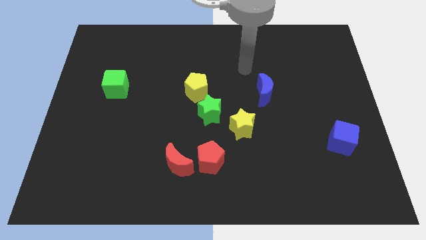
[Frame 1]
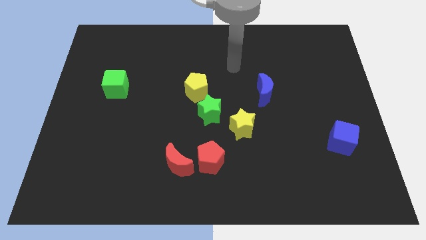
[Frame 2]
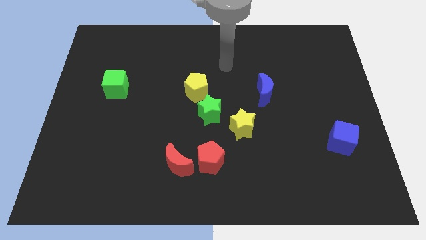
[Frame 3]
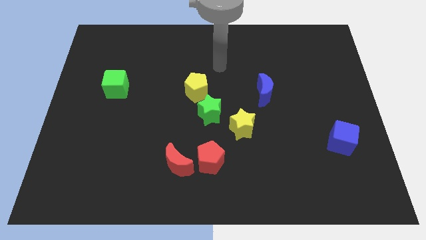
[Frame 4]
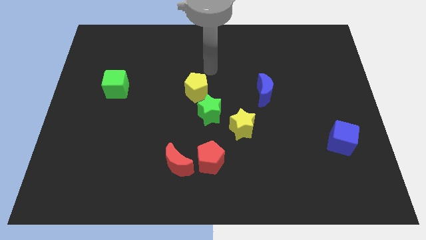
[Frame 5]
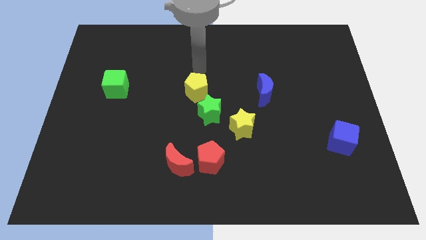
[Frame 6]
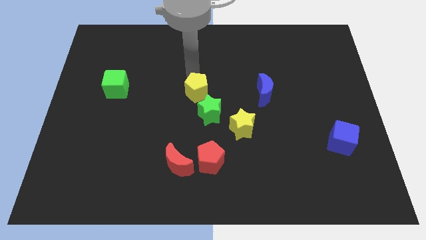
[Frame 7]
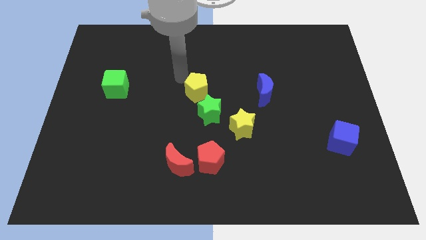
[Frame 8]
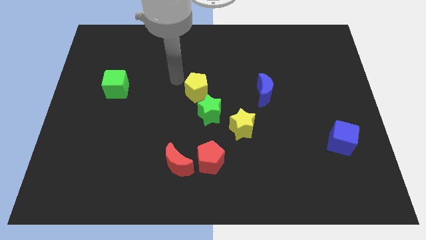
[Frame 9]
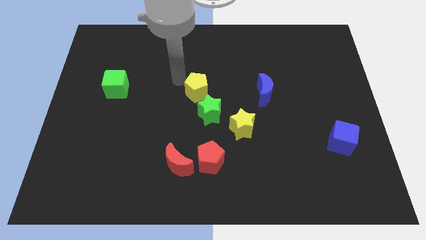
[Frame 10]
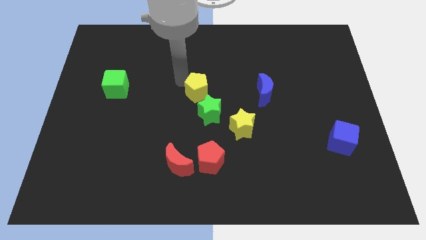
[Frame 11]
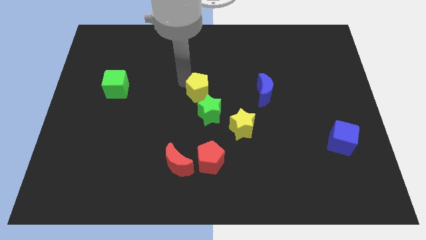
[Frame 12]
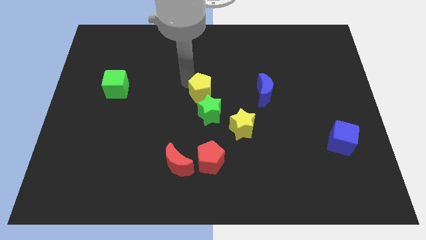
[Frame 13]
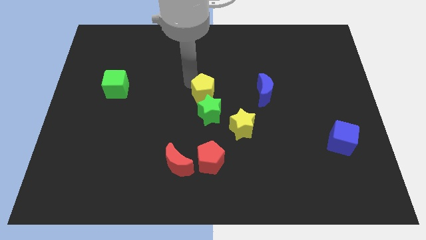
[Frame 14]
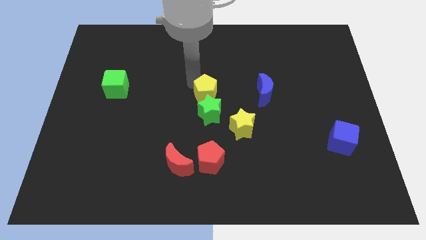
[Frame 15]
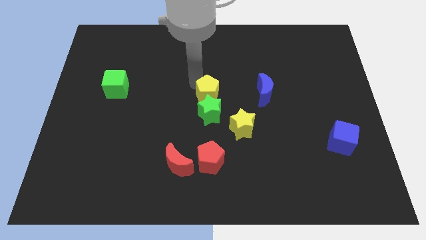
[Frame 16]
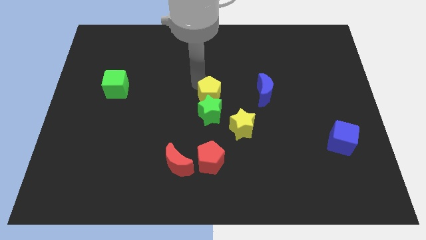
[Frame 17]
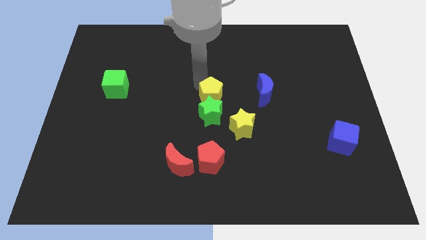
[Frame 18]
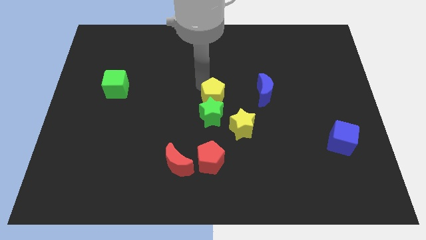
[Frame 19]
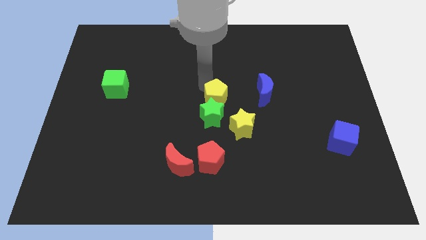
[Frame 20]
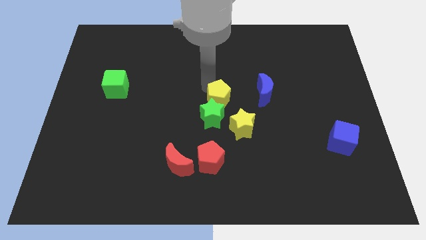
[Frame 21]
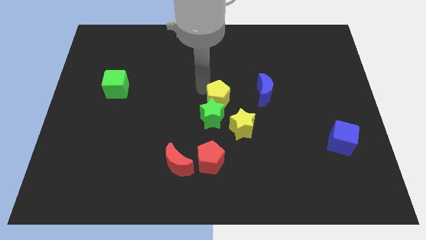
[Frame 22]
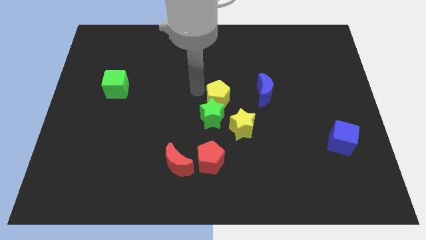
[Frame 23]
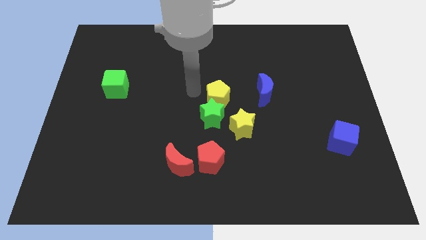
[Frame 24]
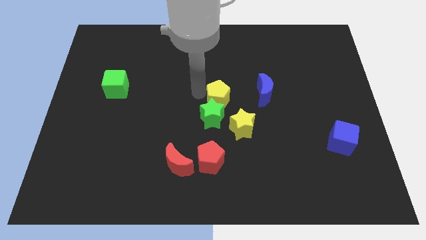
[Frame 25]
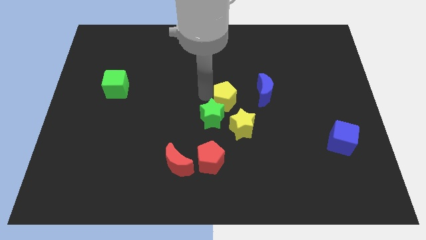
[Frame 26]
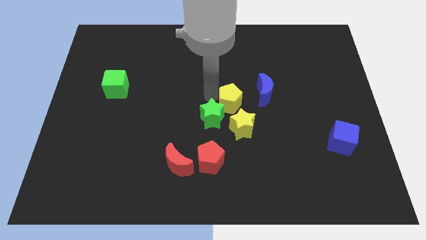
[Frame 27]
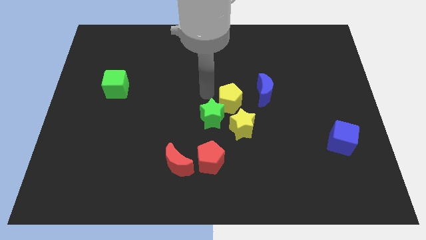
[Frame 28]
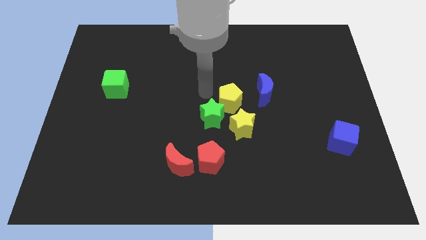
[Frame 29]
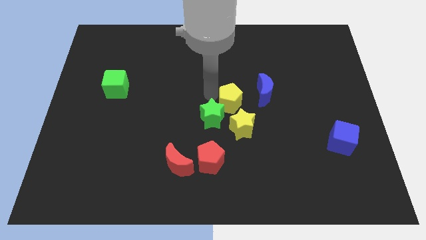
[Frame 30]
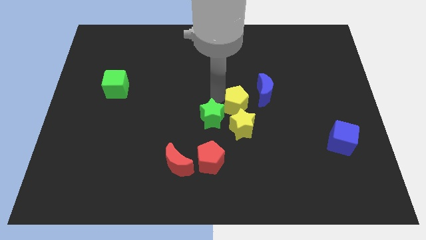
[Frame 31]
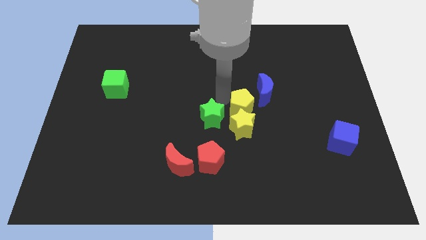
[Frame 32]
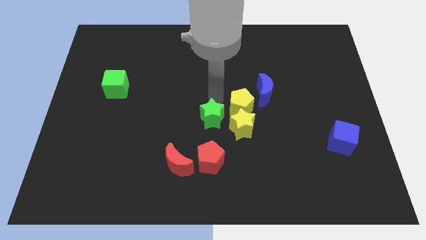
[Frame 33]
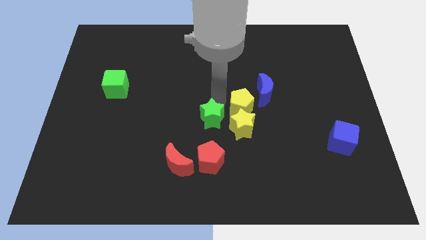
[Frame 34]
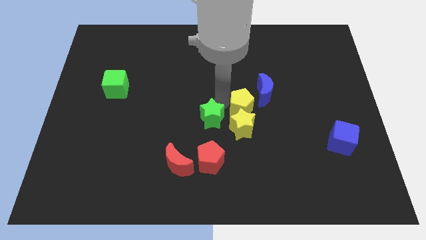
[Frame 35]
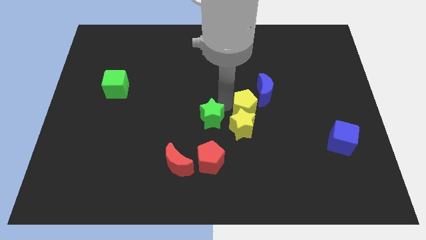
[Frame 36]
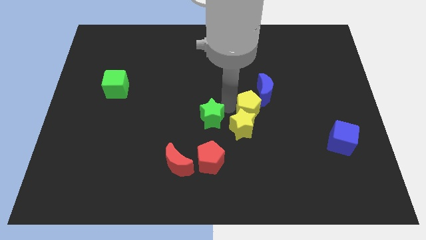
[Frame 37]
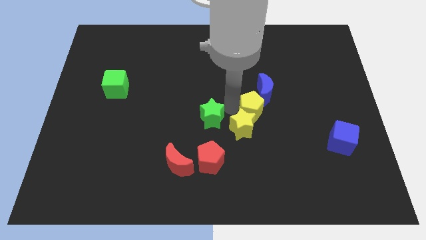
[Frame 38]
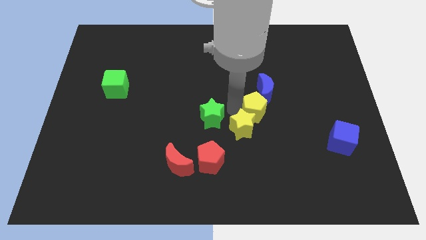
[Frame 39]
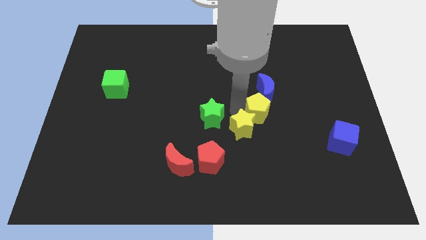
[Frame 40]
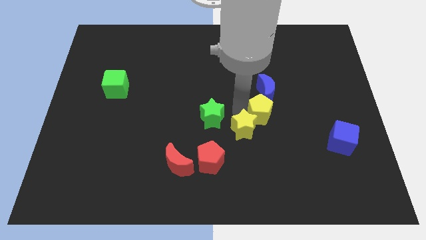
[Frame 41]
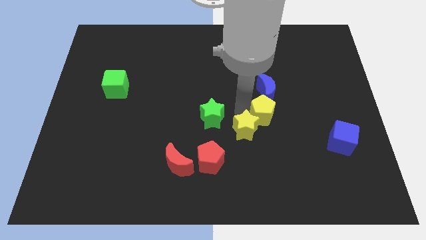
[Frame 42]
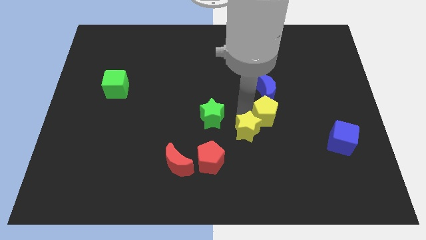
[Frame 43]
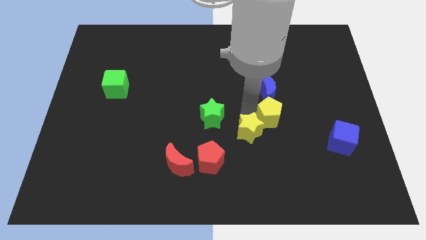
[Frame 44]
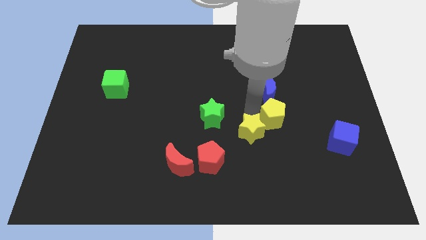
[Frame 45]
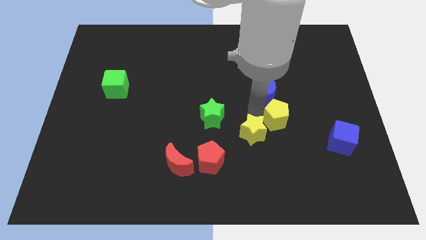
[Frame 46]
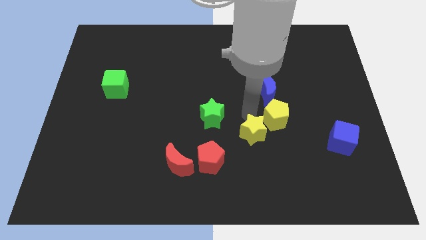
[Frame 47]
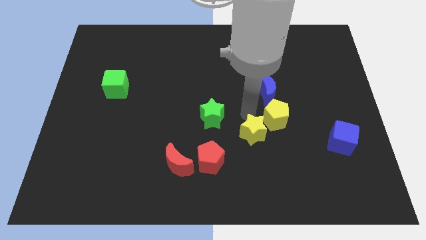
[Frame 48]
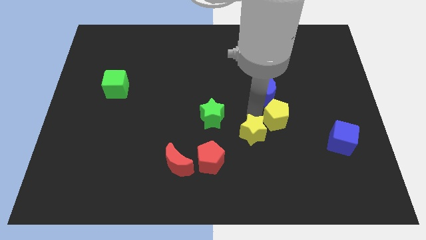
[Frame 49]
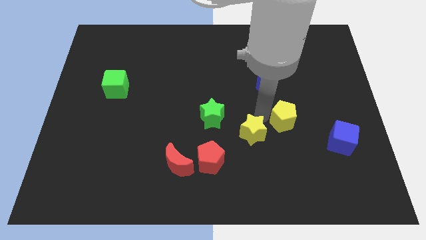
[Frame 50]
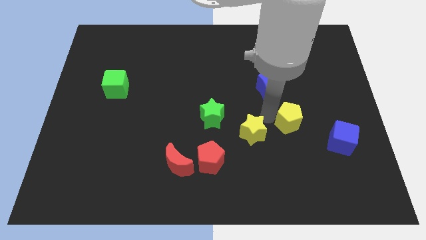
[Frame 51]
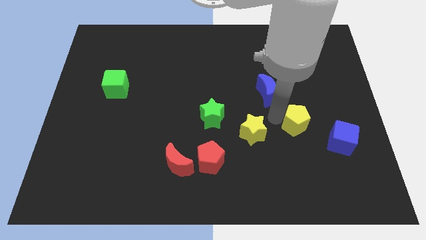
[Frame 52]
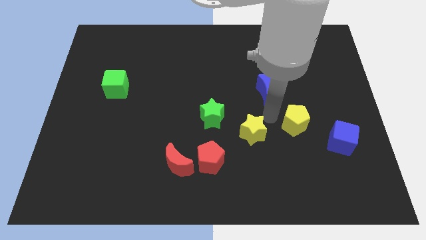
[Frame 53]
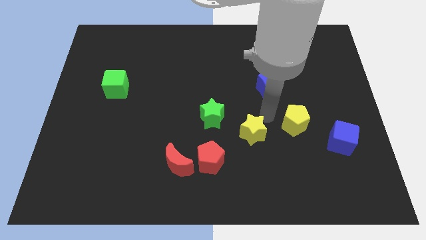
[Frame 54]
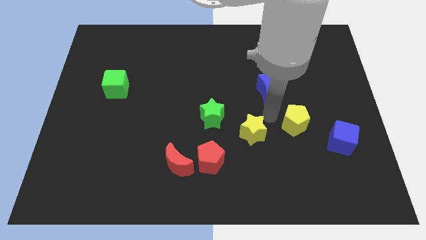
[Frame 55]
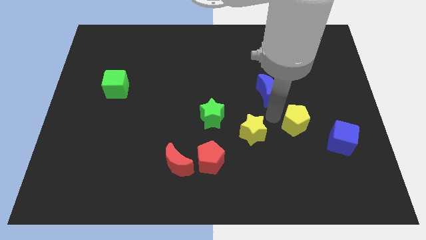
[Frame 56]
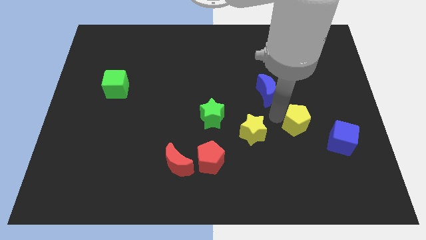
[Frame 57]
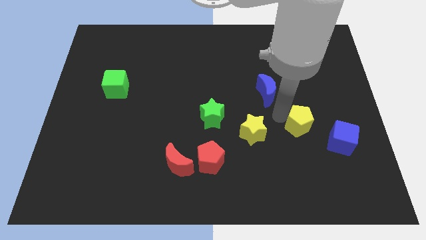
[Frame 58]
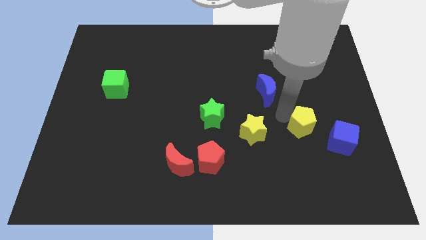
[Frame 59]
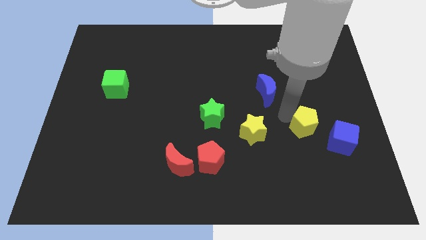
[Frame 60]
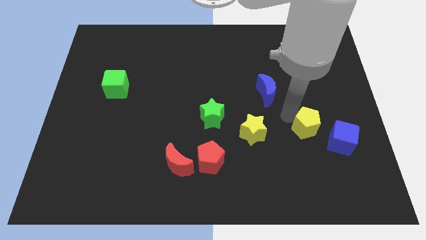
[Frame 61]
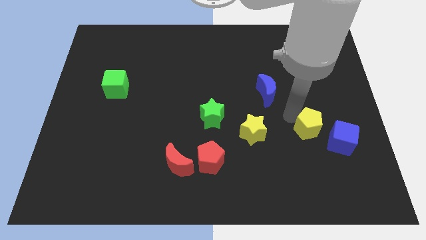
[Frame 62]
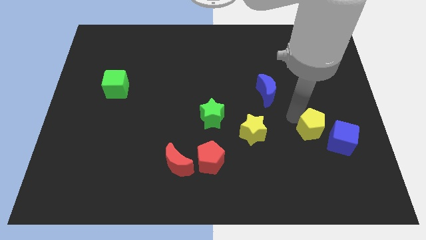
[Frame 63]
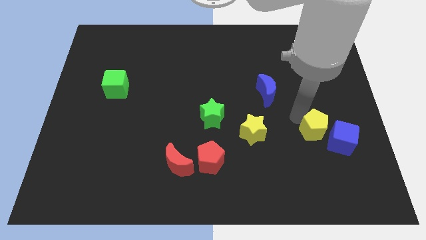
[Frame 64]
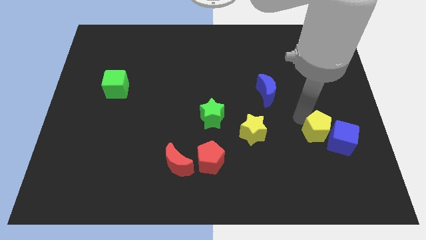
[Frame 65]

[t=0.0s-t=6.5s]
put the yellow pentagon next to the blue cube
